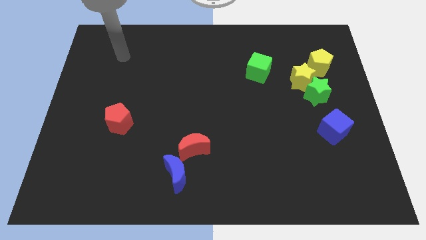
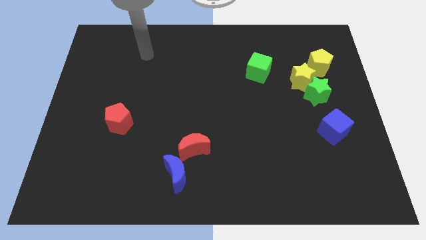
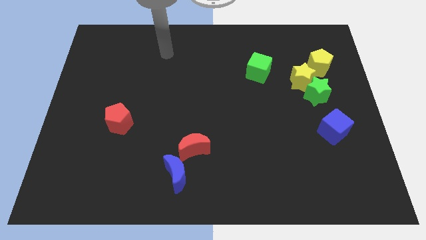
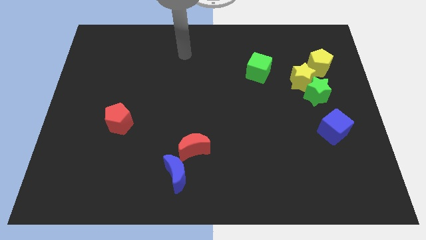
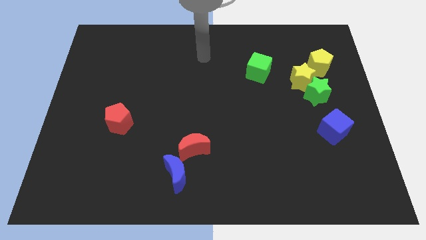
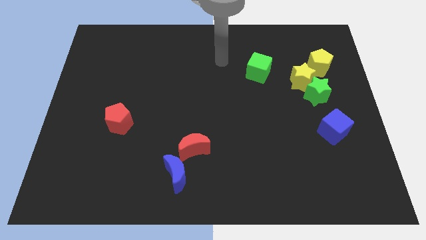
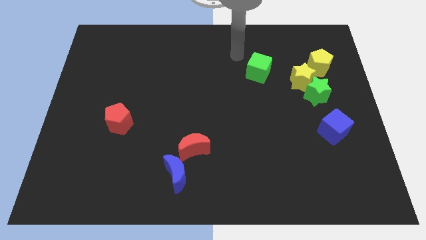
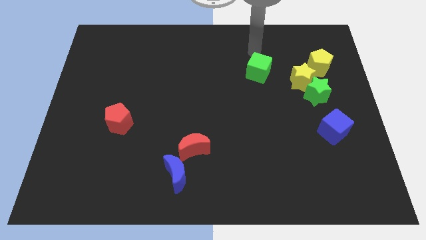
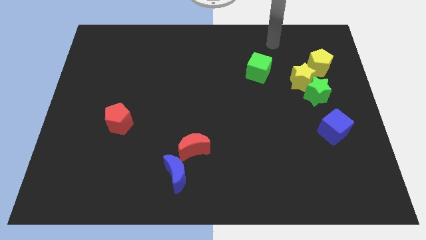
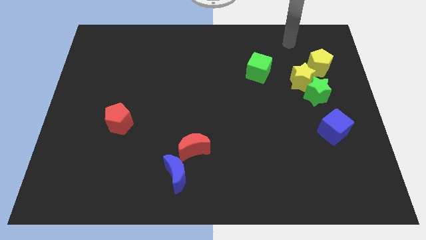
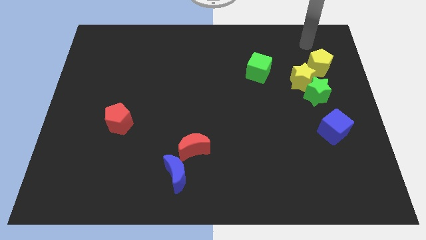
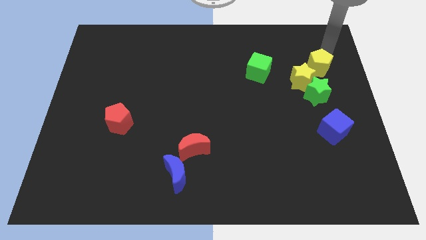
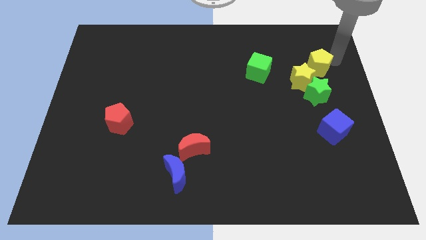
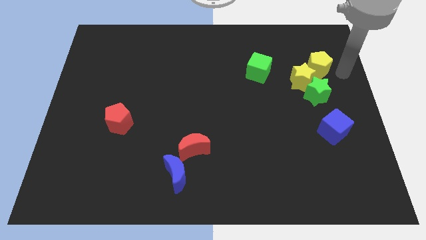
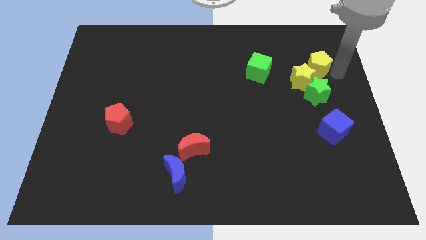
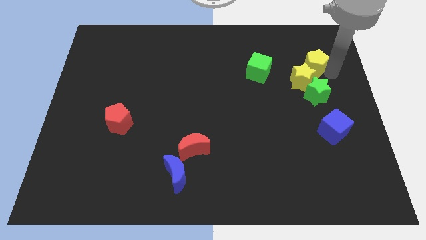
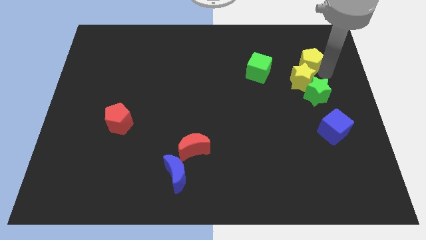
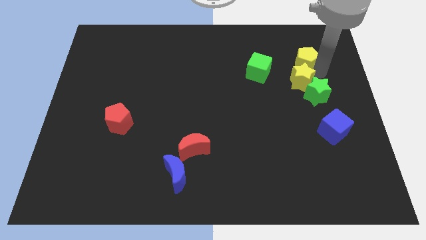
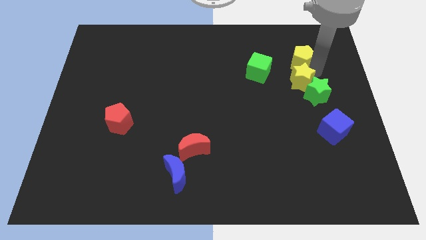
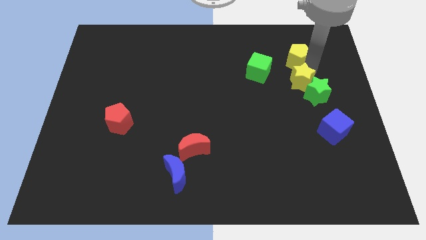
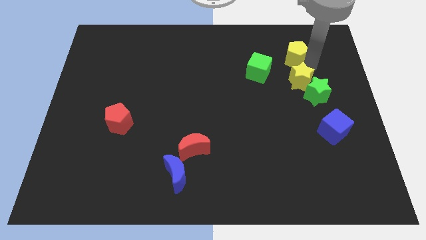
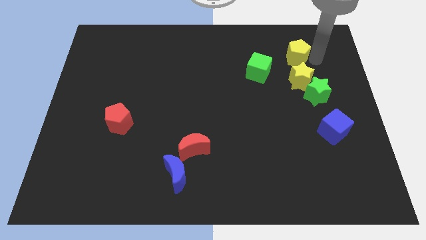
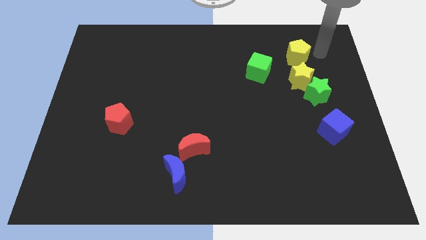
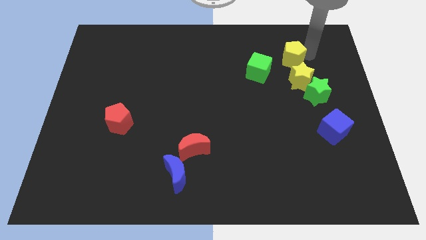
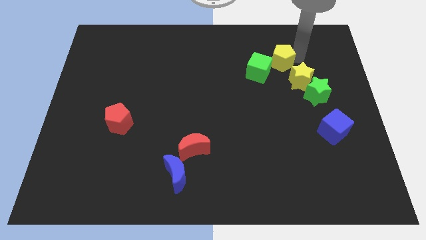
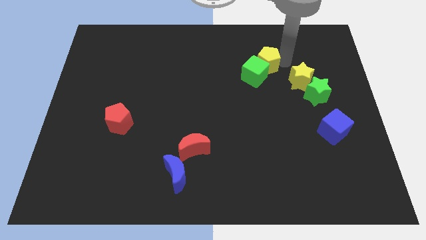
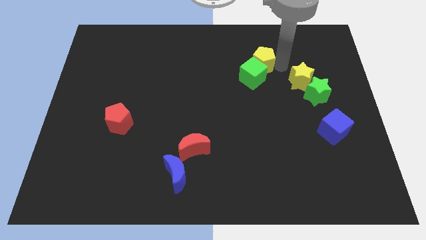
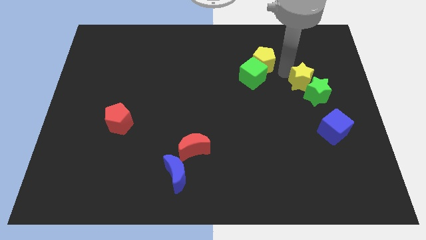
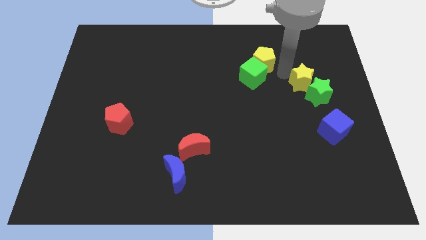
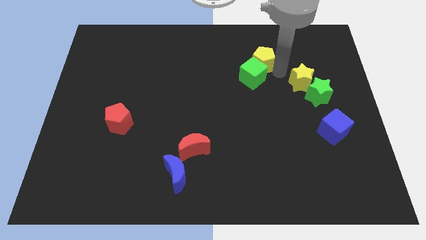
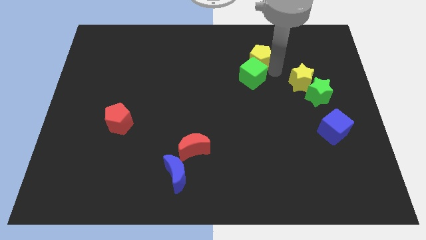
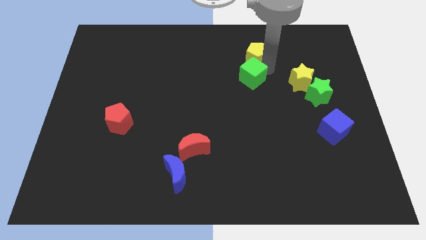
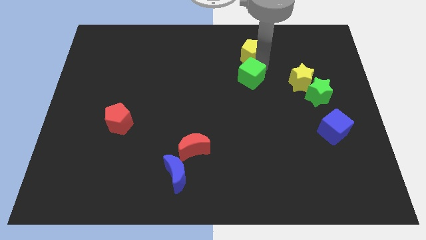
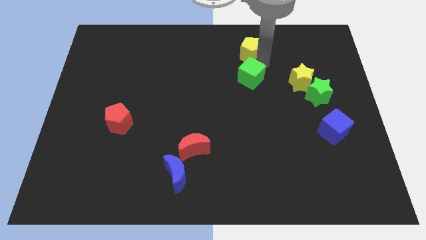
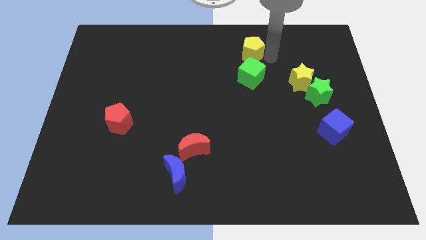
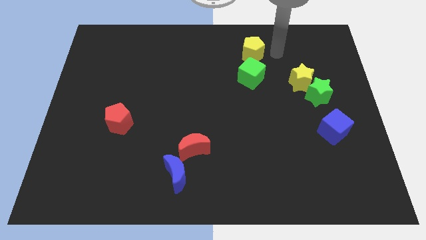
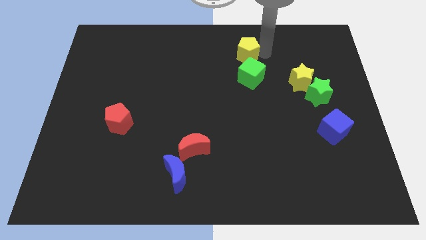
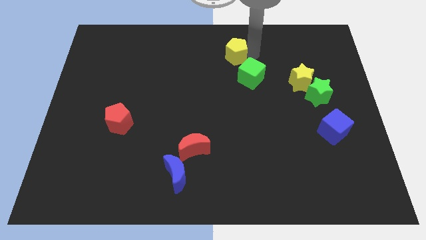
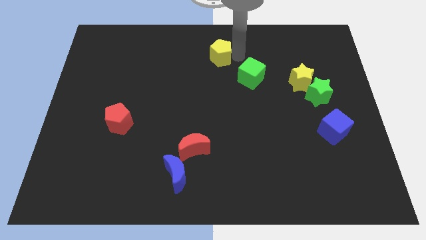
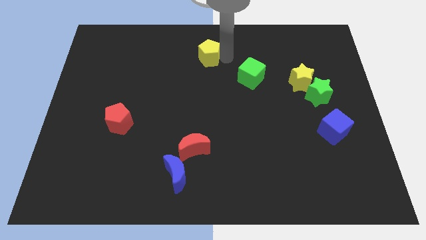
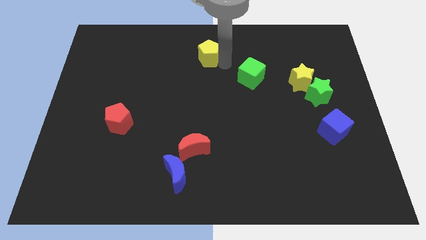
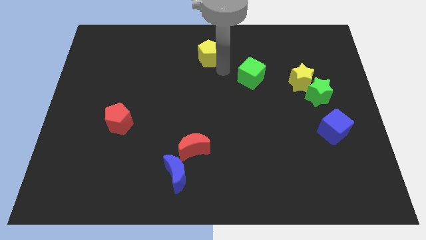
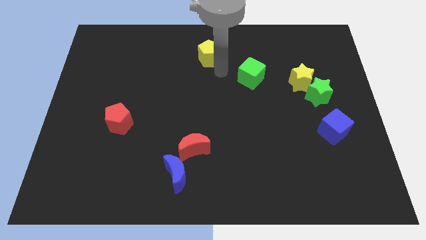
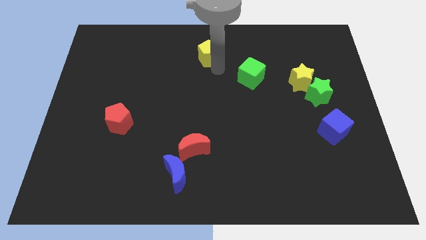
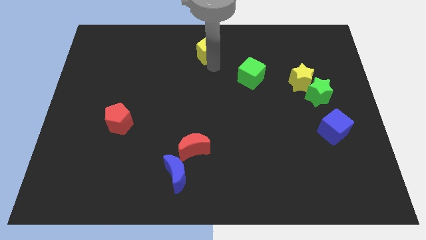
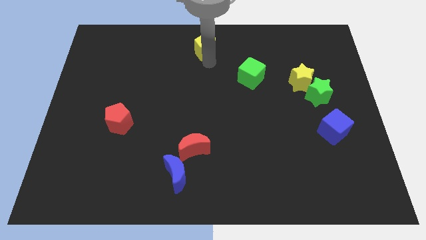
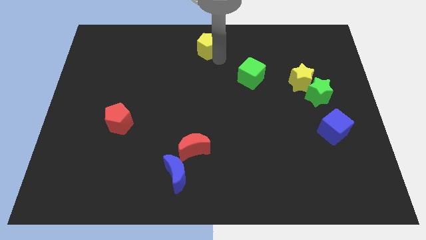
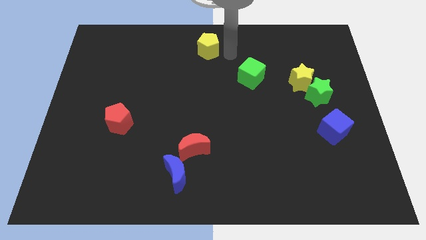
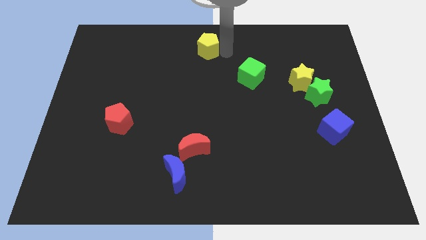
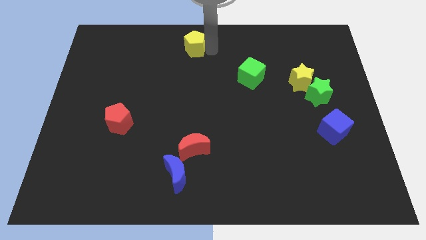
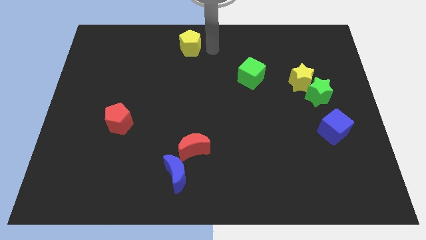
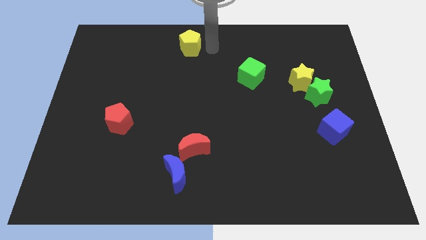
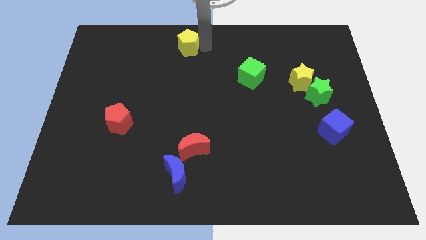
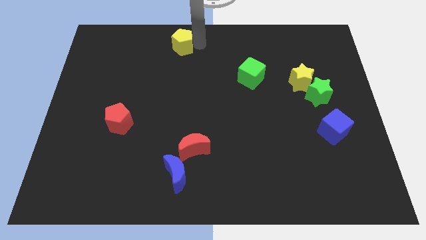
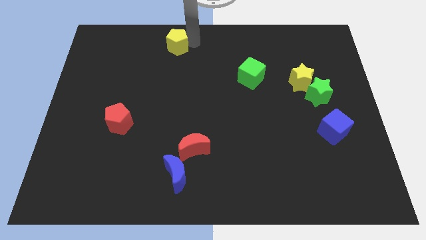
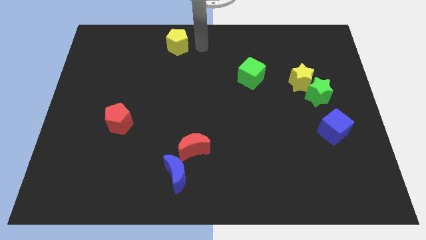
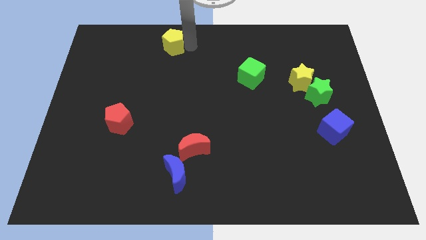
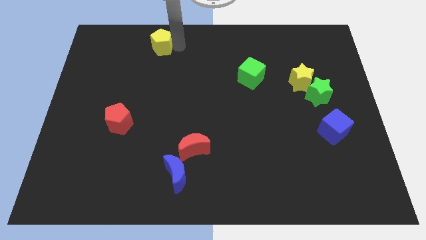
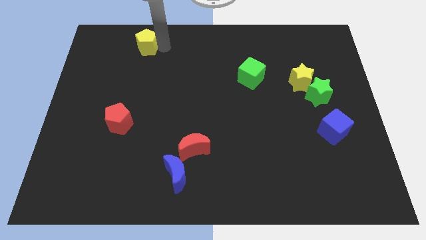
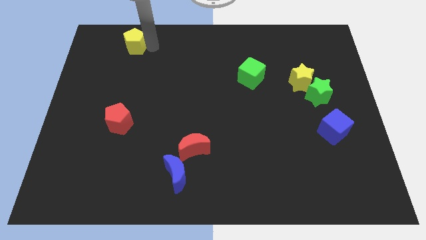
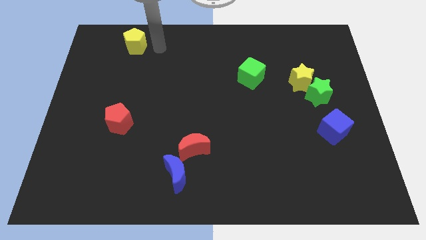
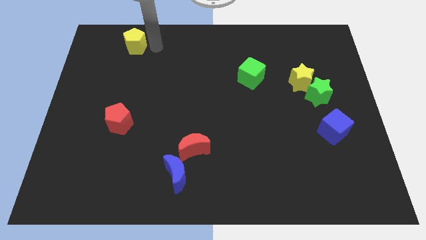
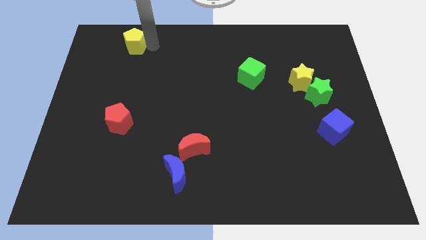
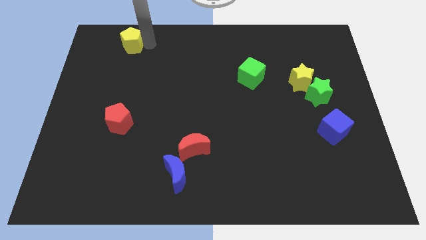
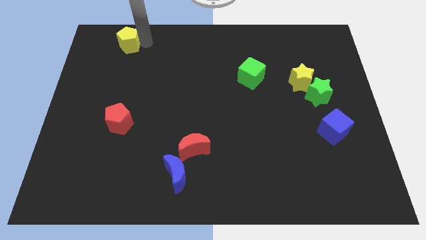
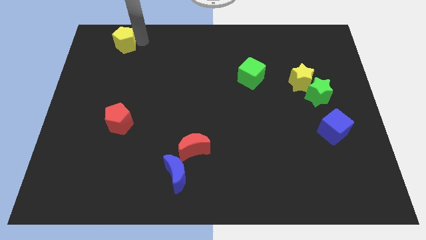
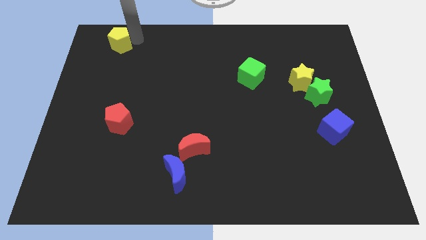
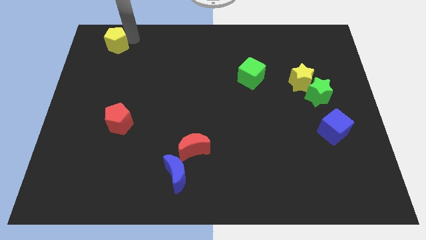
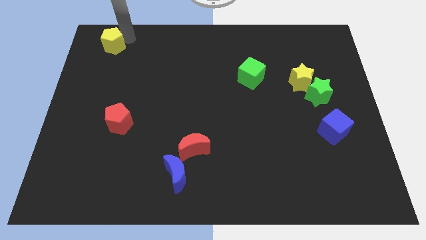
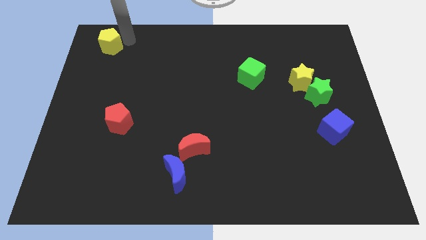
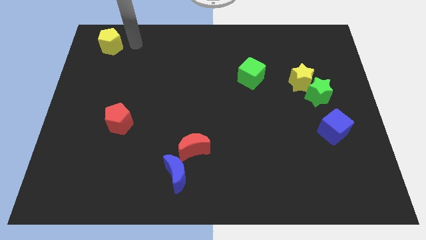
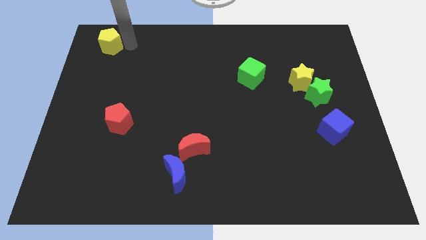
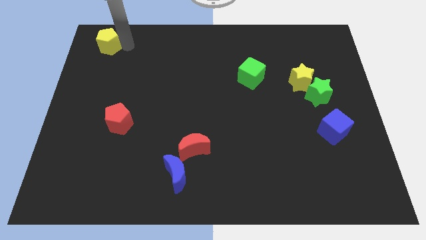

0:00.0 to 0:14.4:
push the yellow pentagon to the top left corner

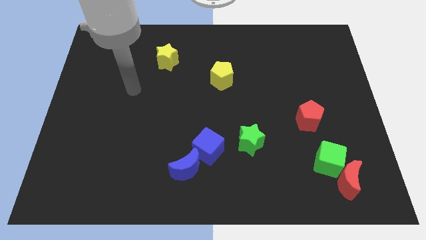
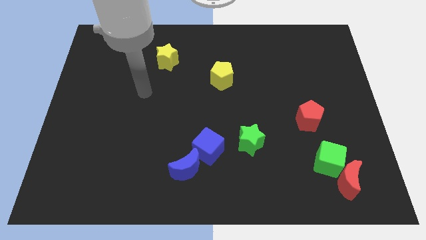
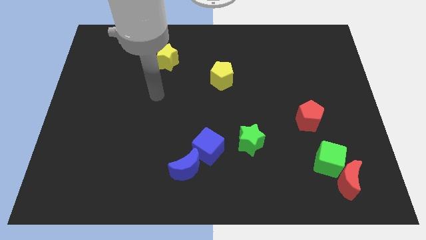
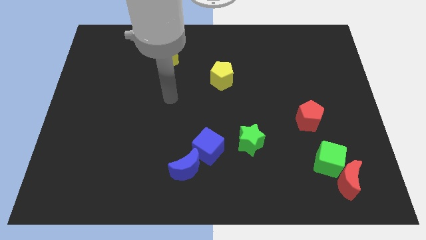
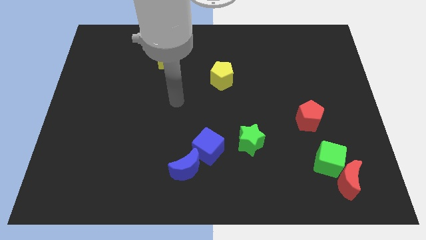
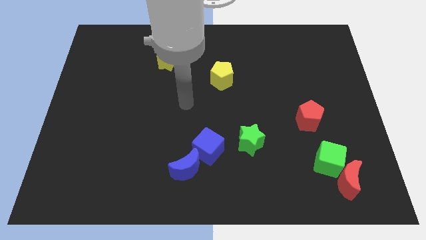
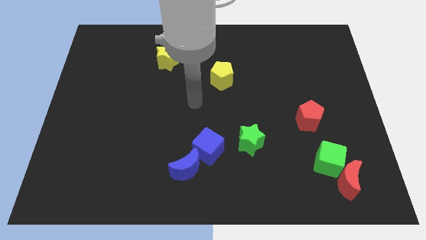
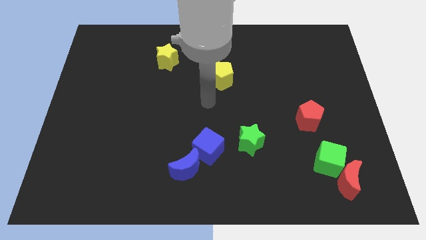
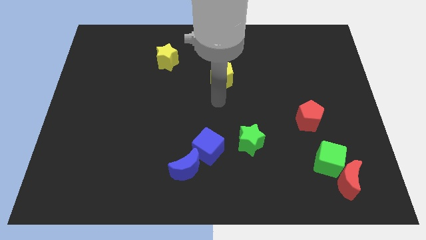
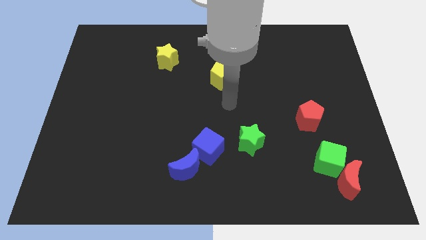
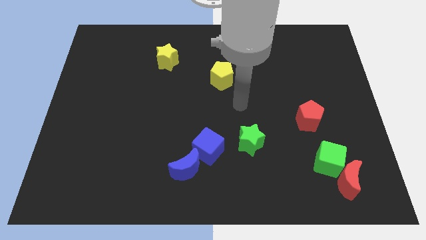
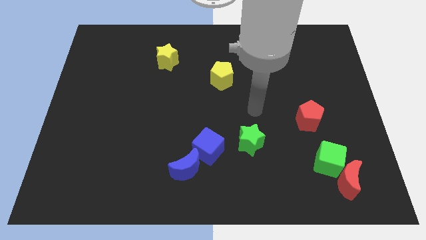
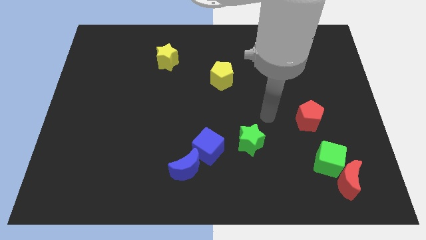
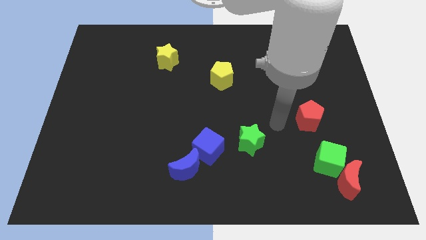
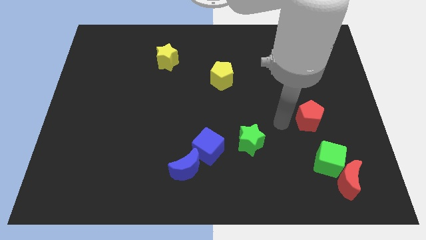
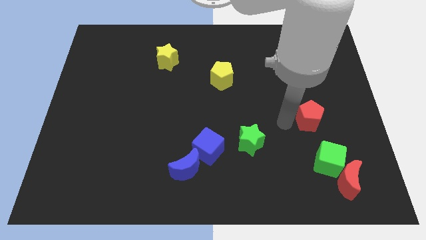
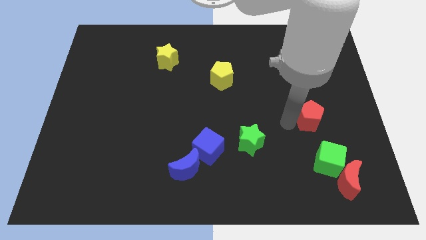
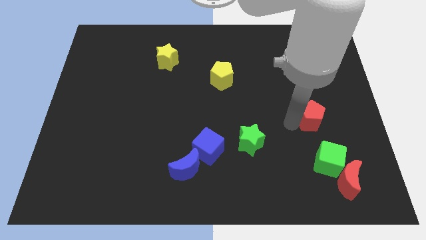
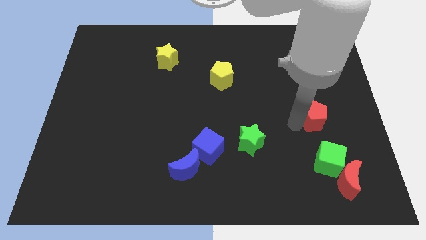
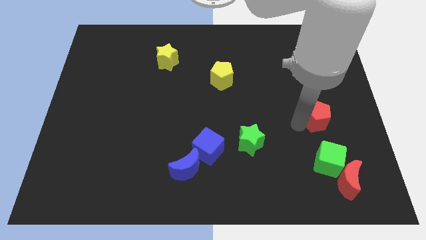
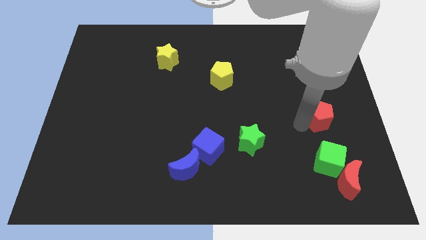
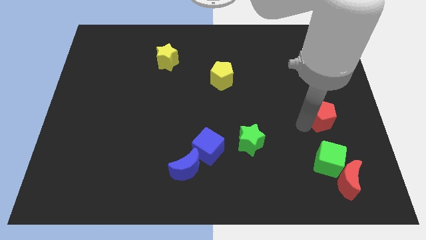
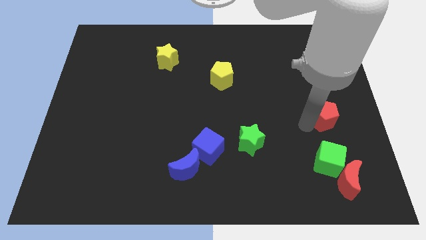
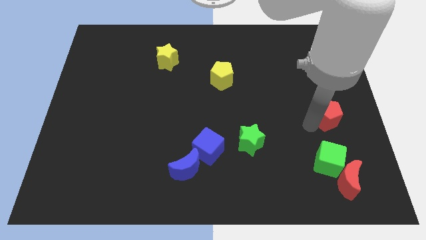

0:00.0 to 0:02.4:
move the red pentagon to the center right
